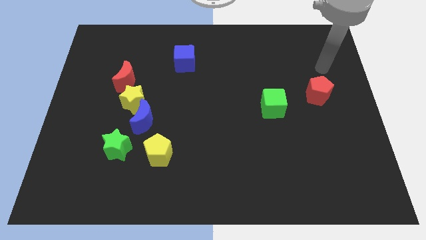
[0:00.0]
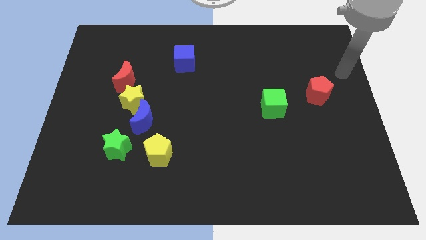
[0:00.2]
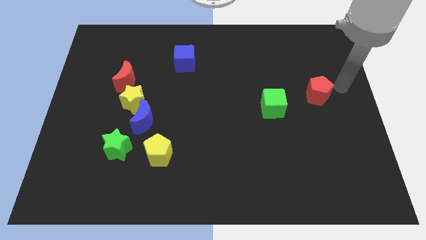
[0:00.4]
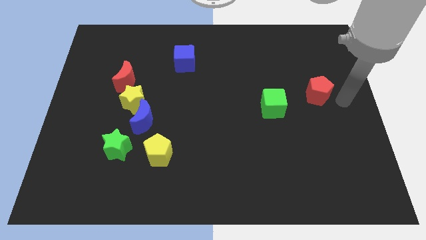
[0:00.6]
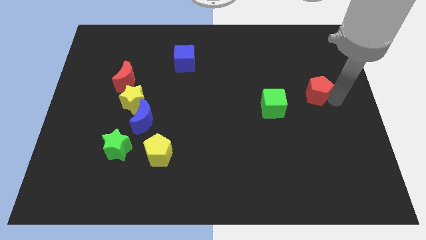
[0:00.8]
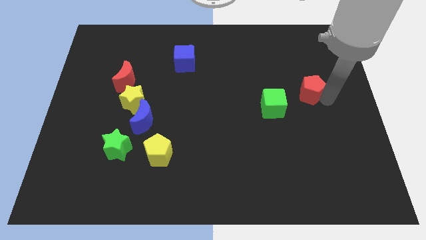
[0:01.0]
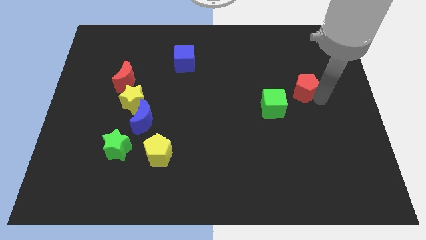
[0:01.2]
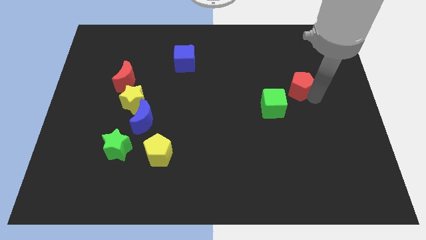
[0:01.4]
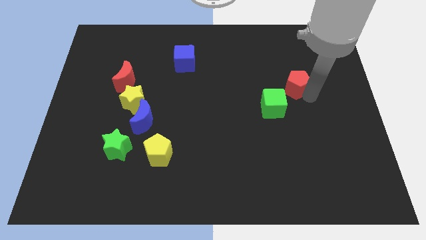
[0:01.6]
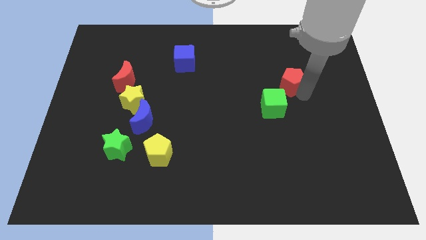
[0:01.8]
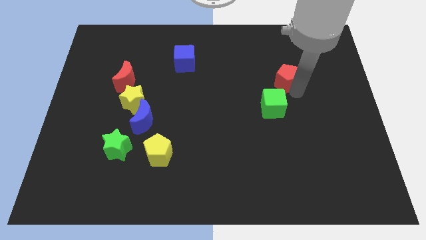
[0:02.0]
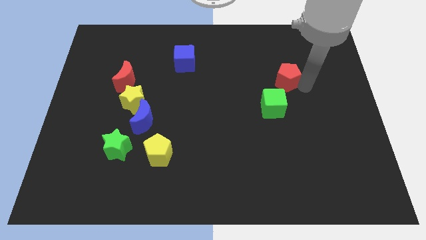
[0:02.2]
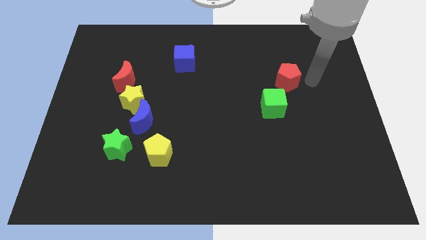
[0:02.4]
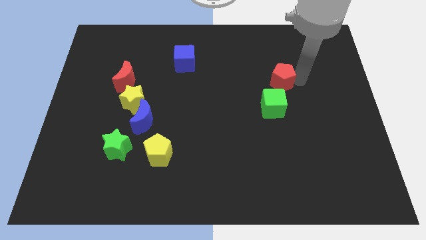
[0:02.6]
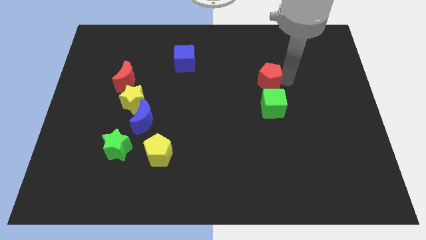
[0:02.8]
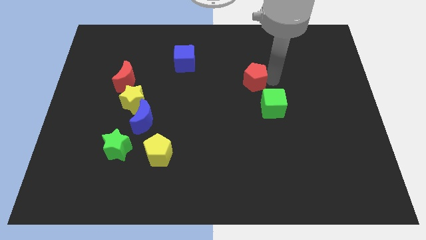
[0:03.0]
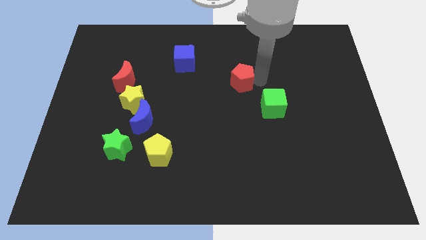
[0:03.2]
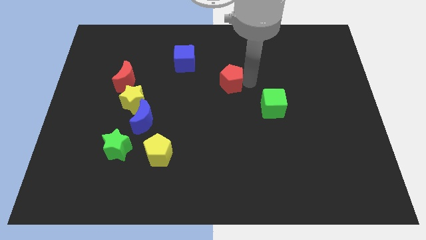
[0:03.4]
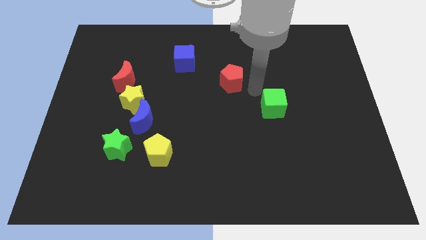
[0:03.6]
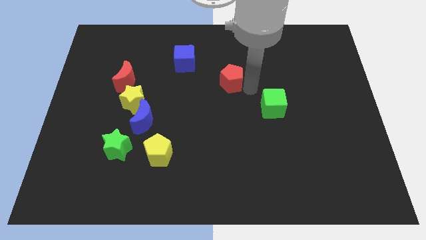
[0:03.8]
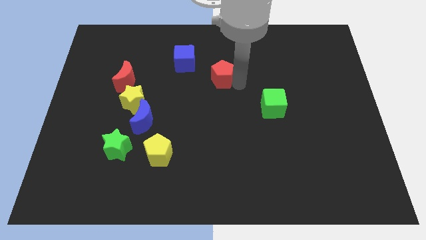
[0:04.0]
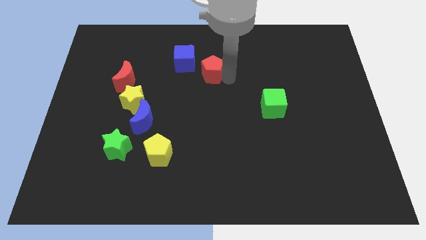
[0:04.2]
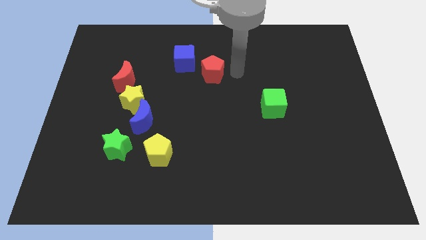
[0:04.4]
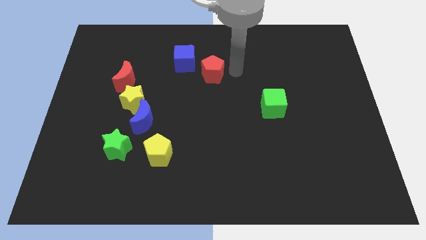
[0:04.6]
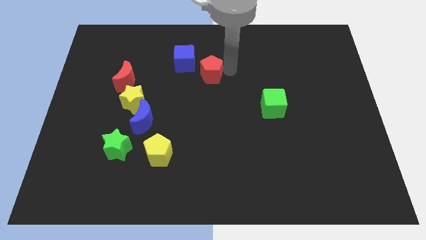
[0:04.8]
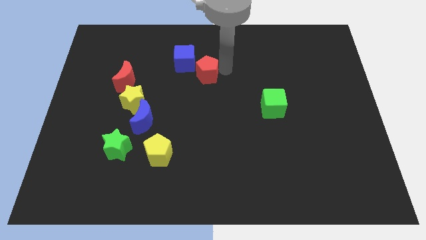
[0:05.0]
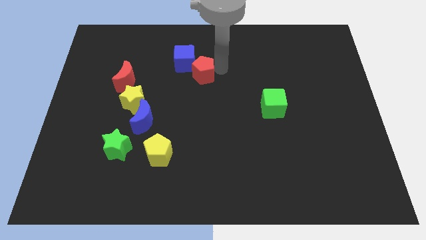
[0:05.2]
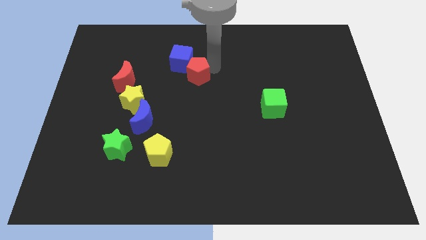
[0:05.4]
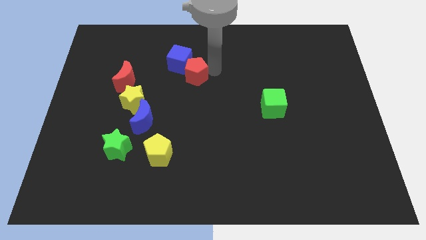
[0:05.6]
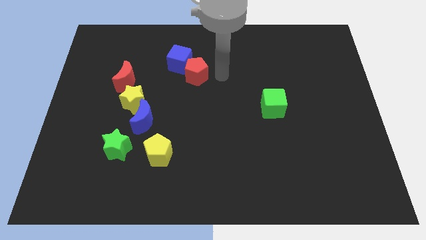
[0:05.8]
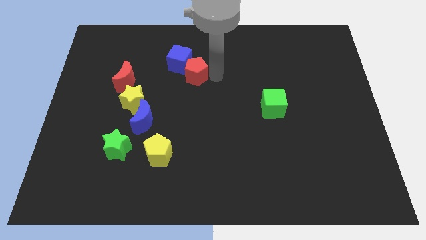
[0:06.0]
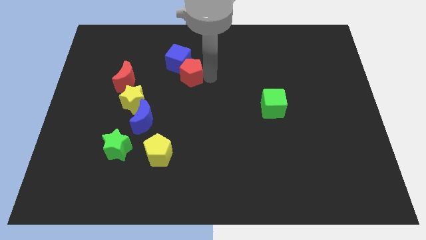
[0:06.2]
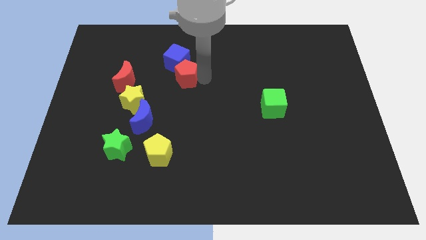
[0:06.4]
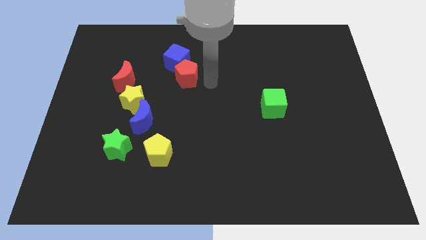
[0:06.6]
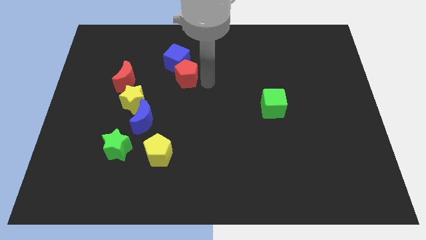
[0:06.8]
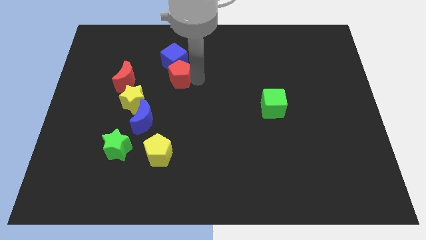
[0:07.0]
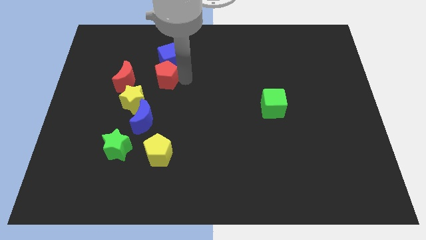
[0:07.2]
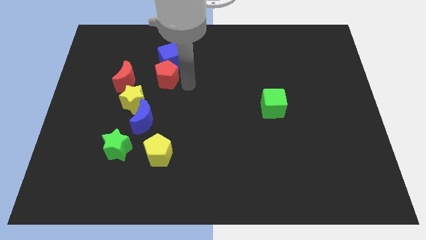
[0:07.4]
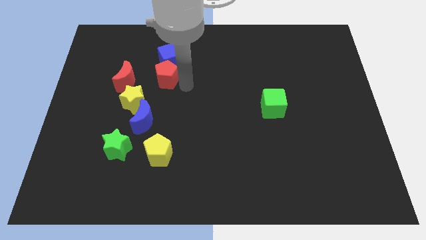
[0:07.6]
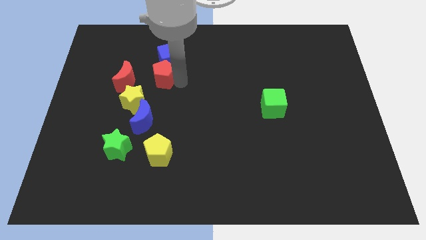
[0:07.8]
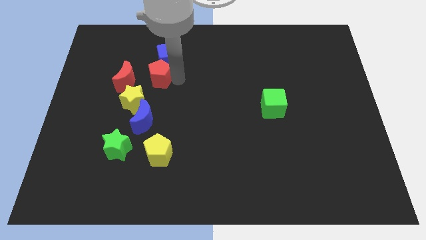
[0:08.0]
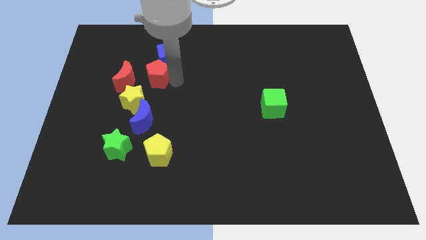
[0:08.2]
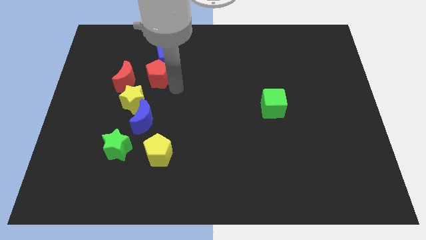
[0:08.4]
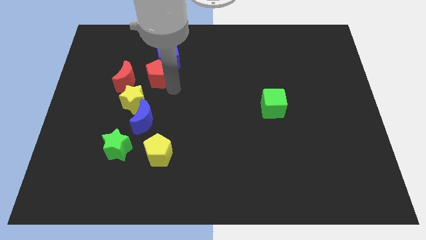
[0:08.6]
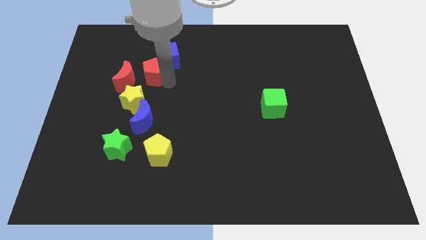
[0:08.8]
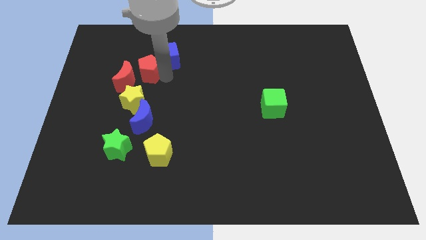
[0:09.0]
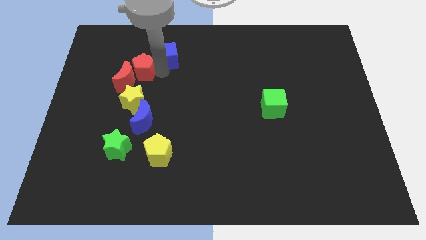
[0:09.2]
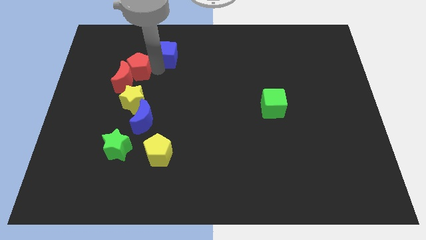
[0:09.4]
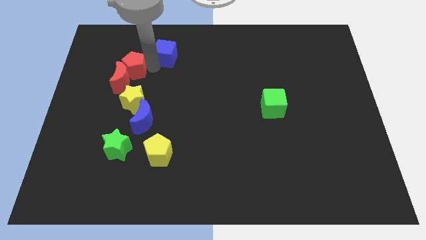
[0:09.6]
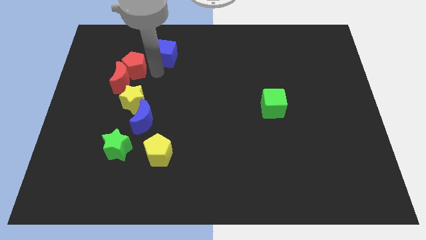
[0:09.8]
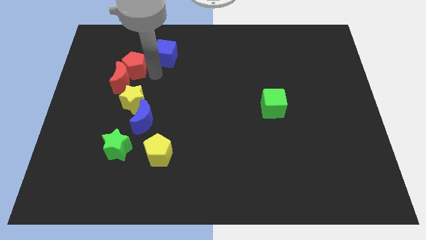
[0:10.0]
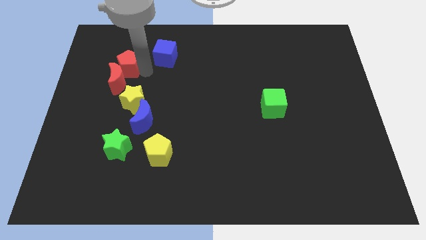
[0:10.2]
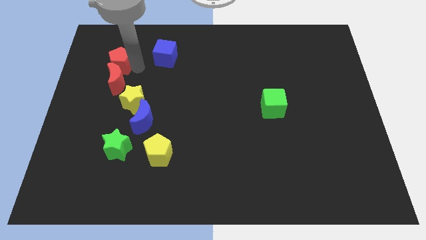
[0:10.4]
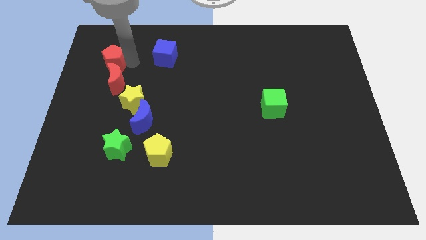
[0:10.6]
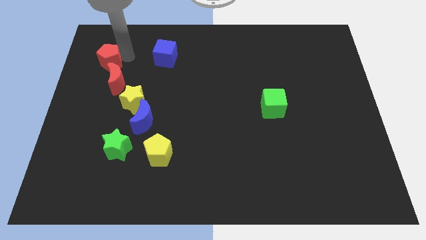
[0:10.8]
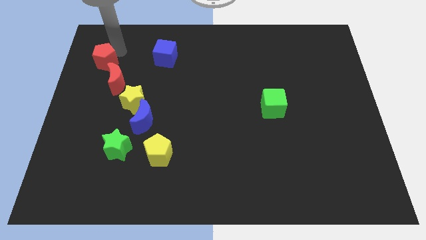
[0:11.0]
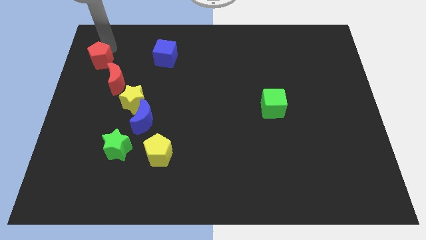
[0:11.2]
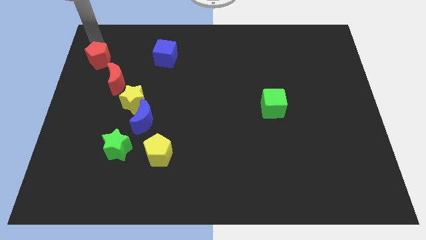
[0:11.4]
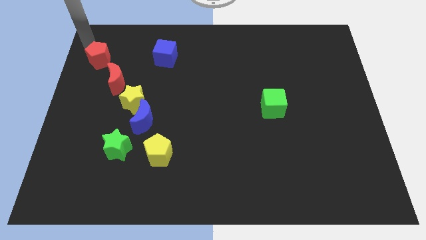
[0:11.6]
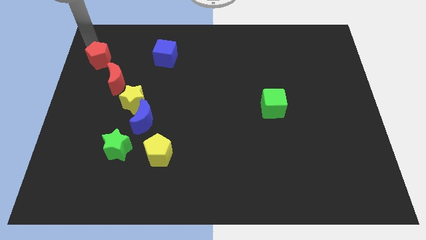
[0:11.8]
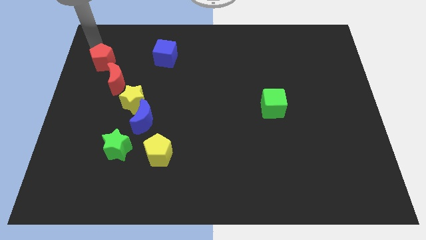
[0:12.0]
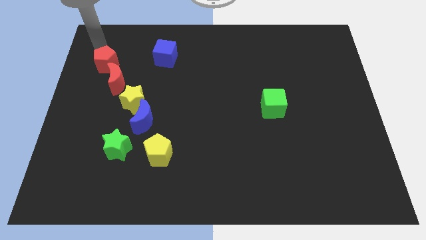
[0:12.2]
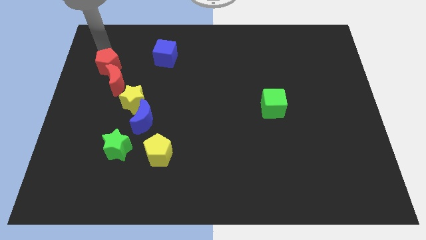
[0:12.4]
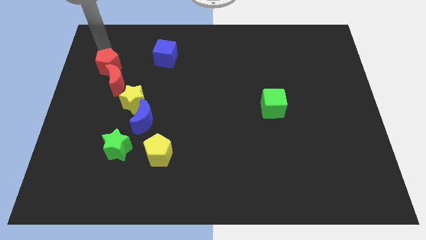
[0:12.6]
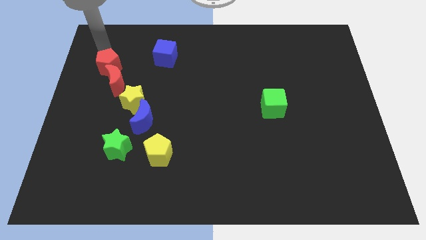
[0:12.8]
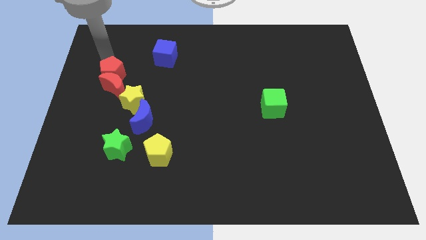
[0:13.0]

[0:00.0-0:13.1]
put the red pentagon to the top left side of the yellow star

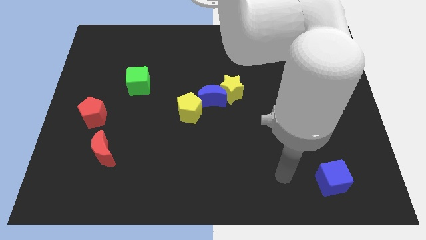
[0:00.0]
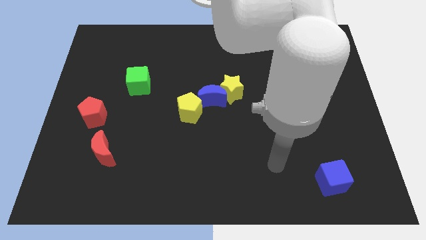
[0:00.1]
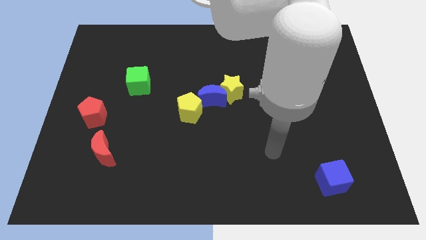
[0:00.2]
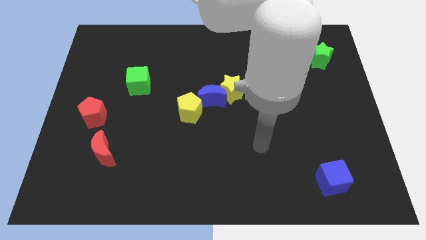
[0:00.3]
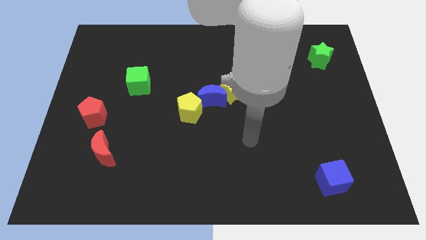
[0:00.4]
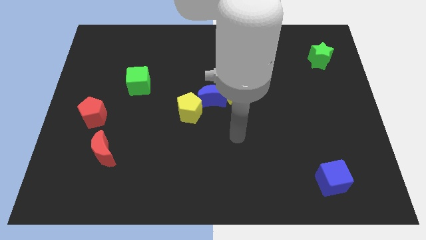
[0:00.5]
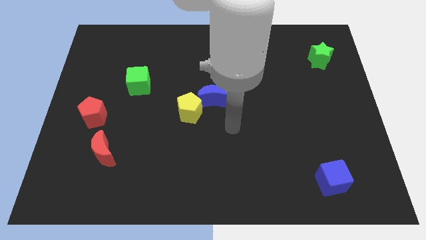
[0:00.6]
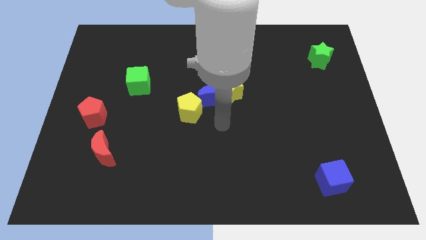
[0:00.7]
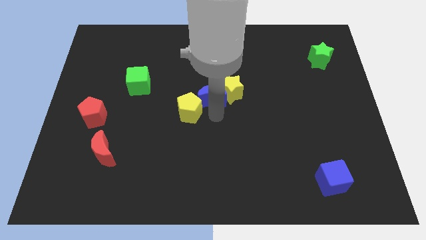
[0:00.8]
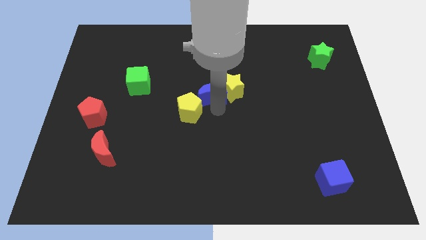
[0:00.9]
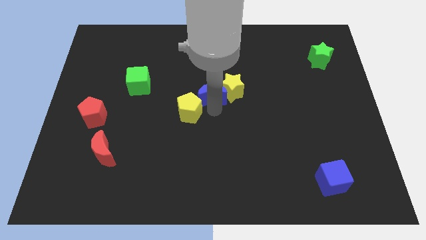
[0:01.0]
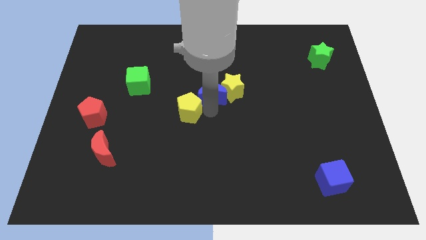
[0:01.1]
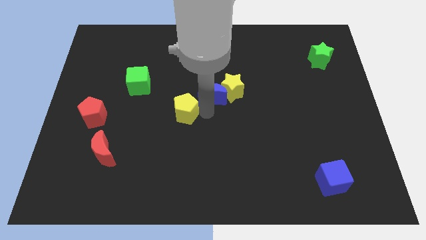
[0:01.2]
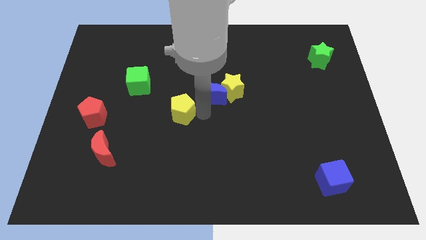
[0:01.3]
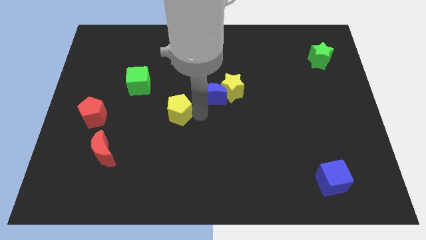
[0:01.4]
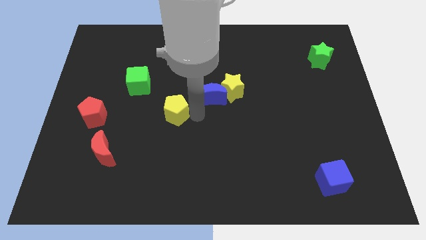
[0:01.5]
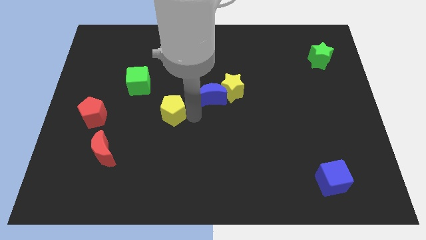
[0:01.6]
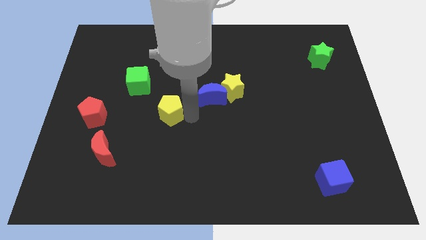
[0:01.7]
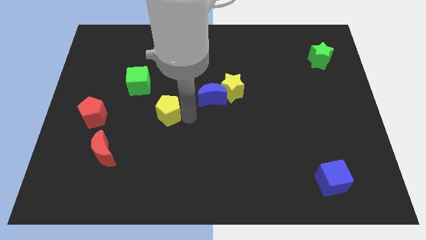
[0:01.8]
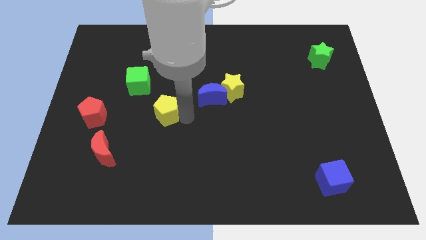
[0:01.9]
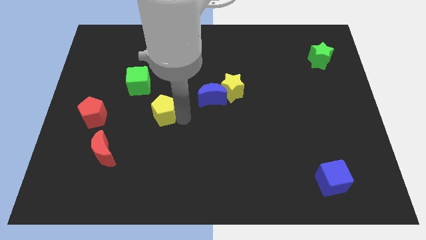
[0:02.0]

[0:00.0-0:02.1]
slide the yellow pentagon to the right side of the red pentagon
